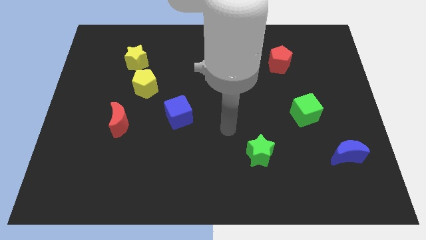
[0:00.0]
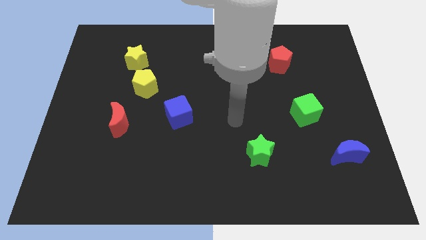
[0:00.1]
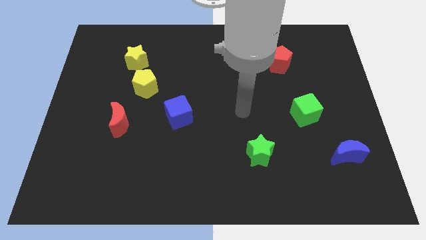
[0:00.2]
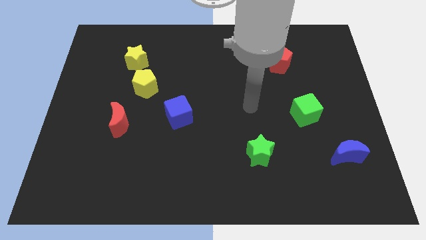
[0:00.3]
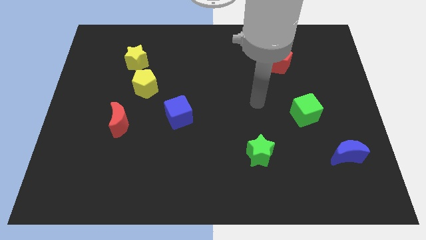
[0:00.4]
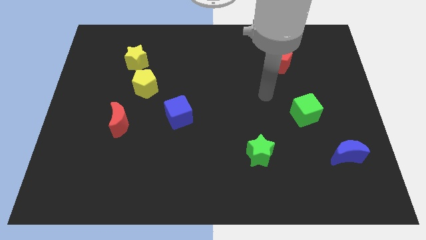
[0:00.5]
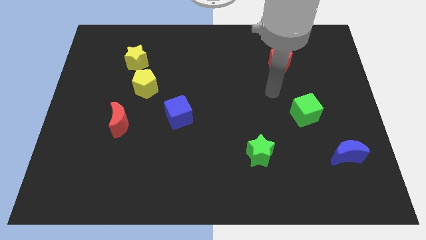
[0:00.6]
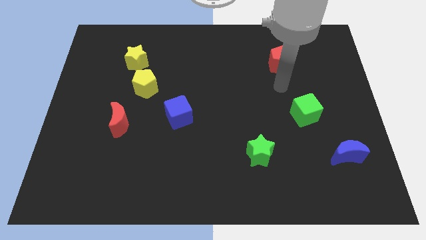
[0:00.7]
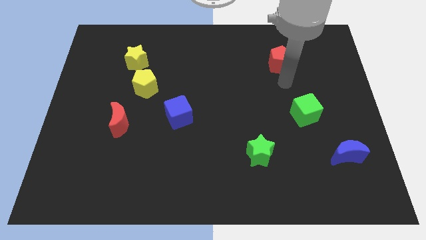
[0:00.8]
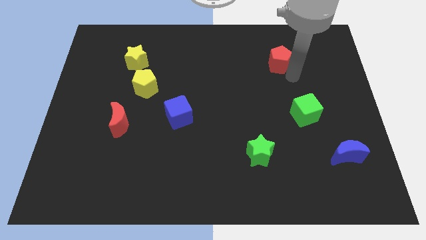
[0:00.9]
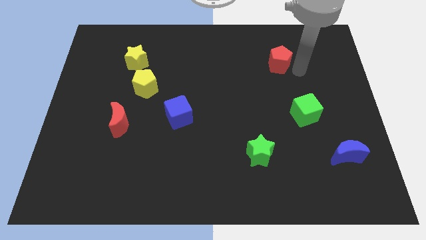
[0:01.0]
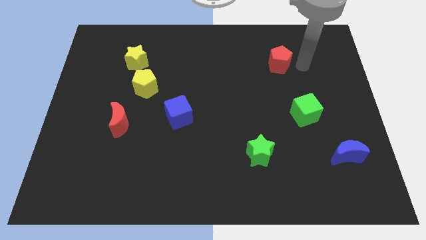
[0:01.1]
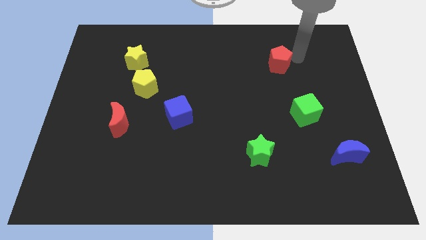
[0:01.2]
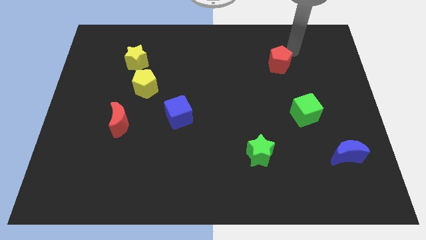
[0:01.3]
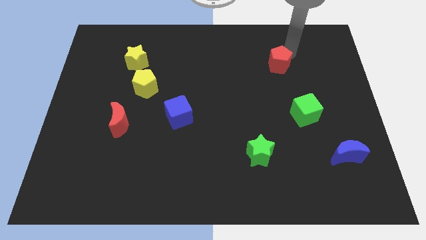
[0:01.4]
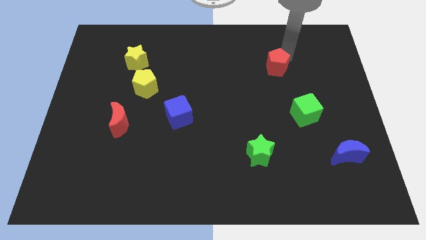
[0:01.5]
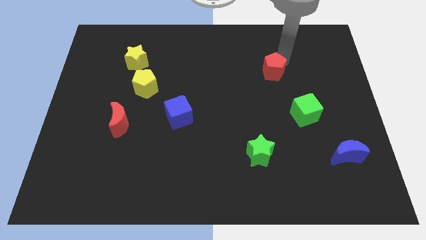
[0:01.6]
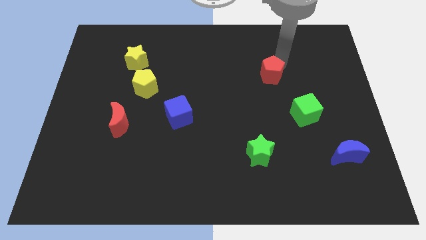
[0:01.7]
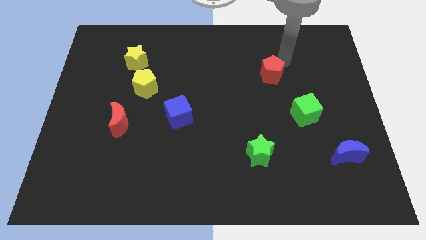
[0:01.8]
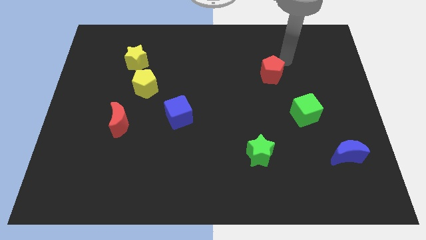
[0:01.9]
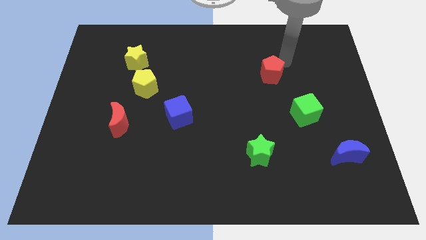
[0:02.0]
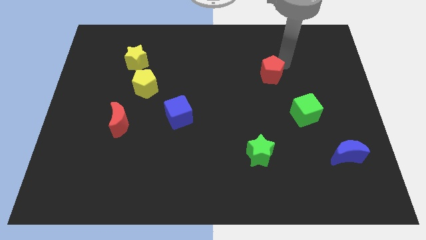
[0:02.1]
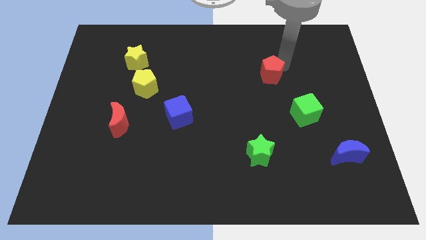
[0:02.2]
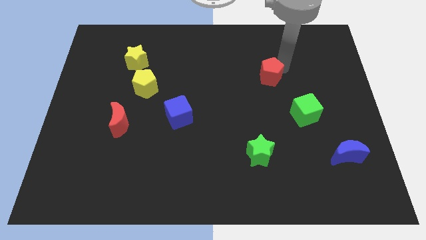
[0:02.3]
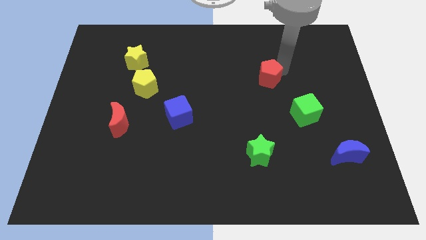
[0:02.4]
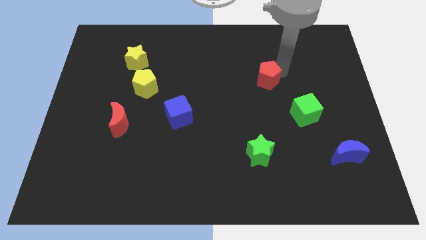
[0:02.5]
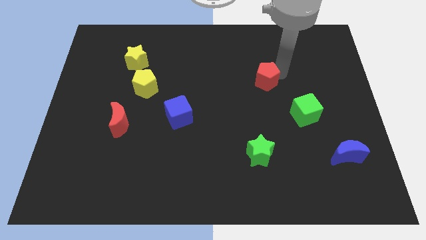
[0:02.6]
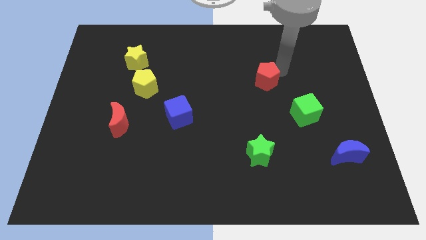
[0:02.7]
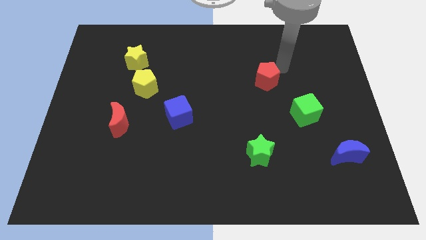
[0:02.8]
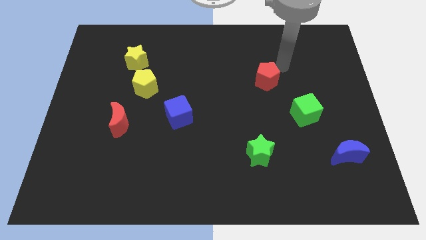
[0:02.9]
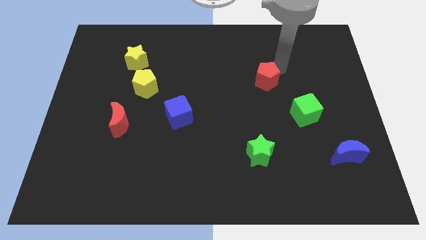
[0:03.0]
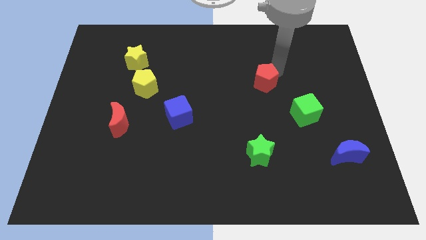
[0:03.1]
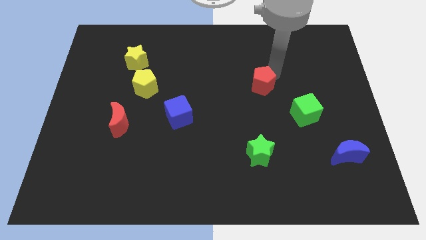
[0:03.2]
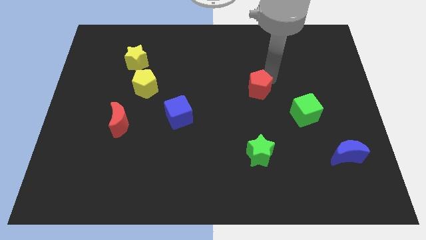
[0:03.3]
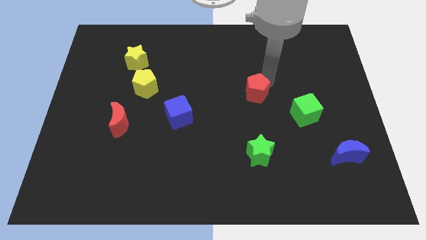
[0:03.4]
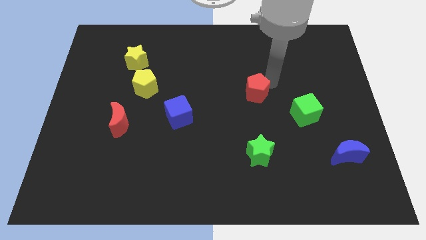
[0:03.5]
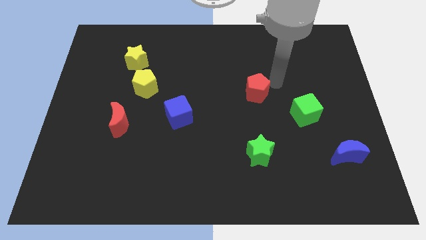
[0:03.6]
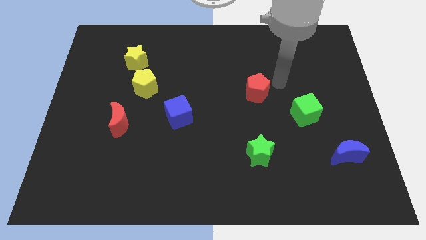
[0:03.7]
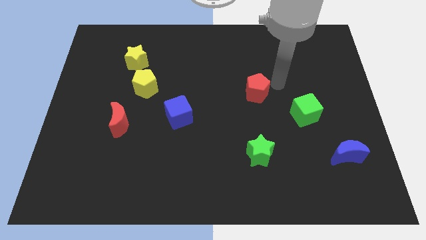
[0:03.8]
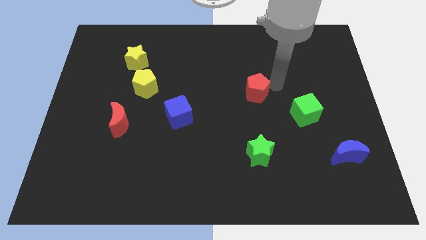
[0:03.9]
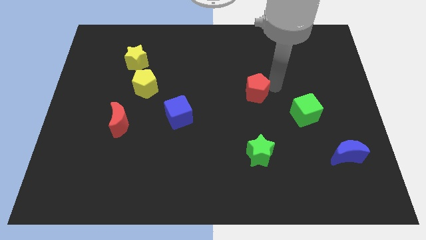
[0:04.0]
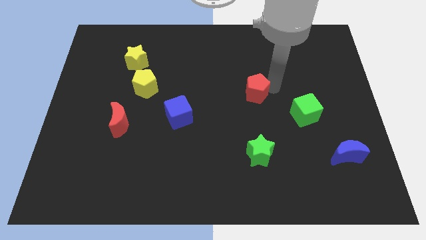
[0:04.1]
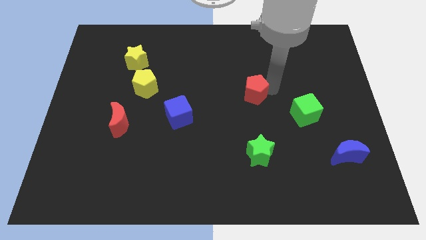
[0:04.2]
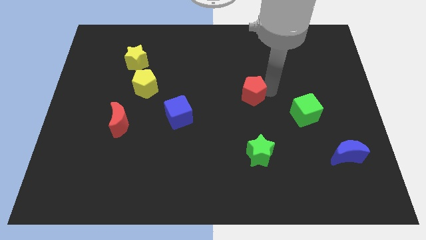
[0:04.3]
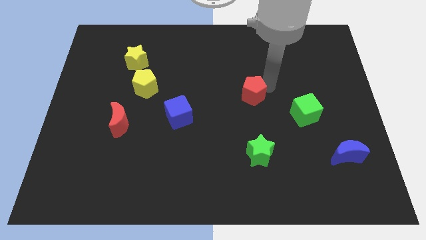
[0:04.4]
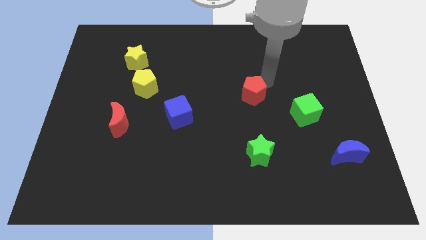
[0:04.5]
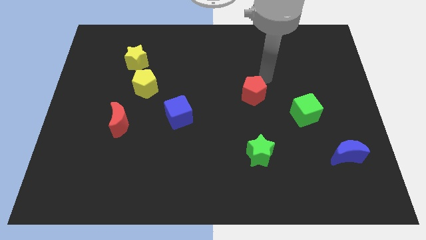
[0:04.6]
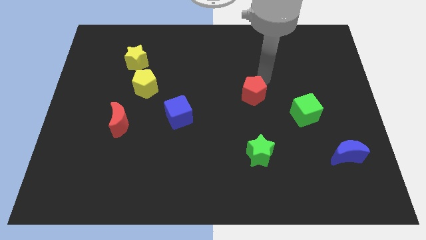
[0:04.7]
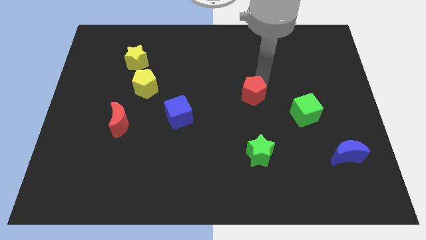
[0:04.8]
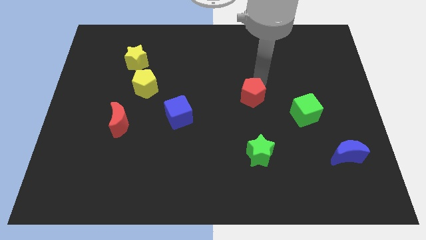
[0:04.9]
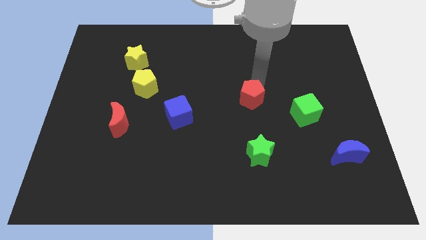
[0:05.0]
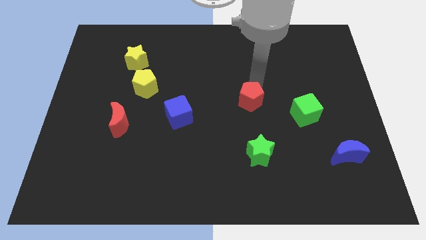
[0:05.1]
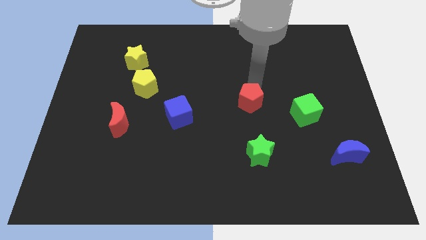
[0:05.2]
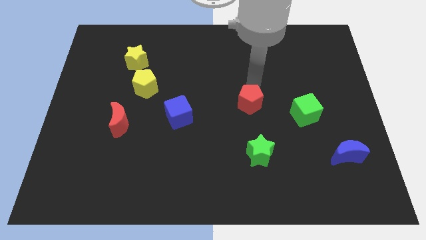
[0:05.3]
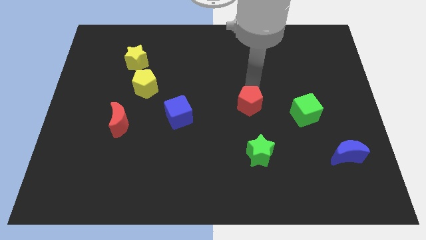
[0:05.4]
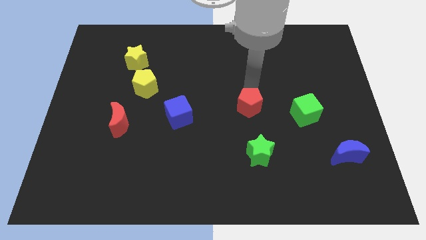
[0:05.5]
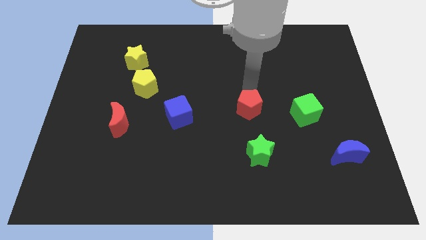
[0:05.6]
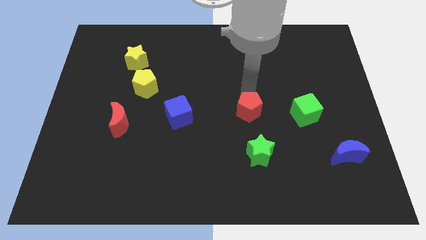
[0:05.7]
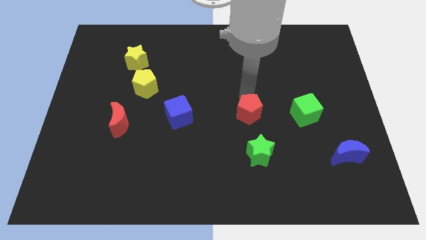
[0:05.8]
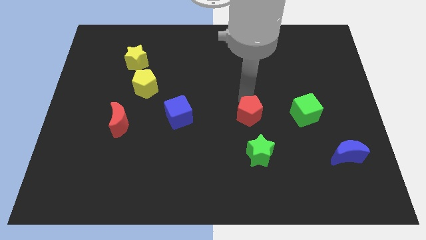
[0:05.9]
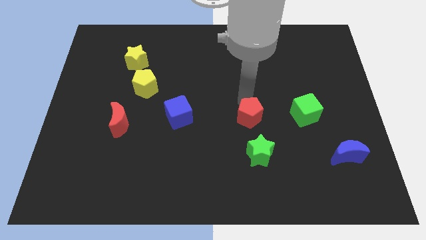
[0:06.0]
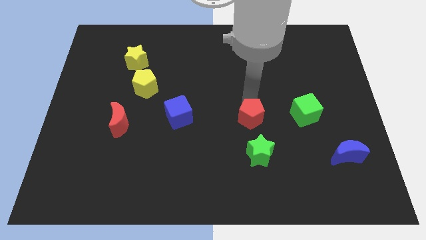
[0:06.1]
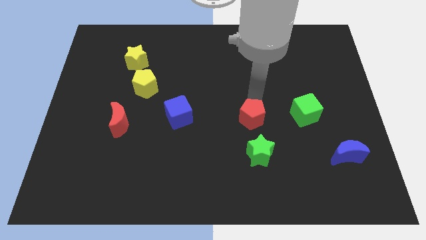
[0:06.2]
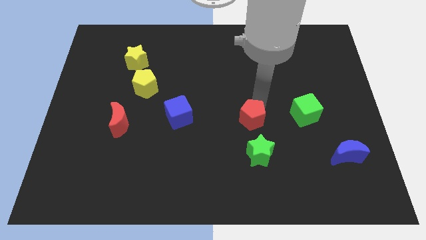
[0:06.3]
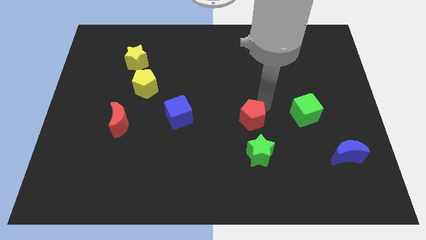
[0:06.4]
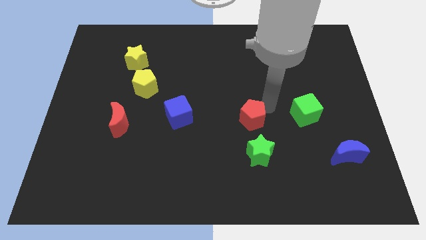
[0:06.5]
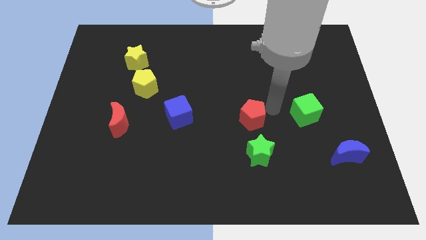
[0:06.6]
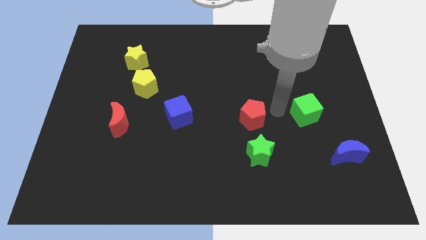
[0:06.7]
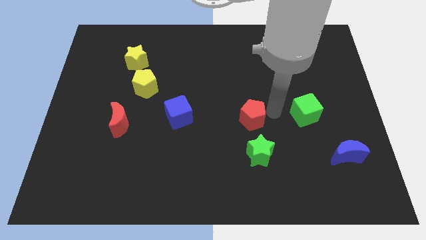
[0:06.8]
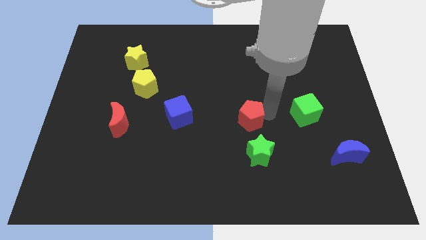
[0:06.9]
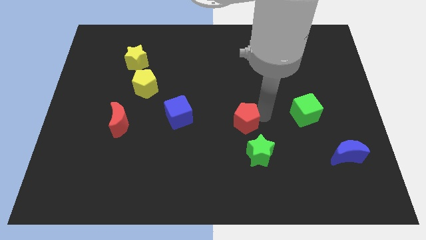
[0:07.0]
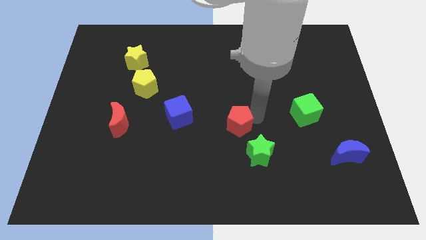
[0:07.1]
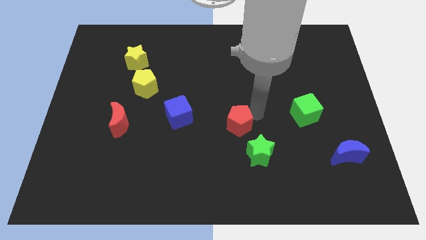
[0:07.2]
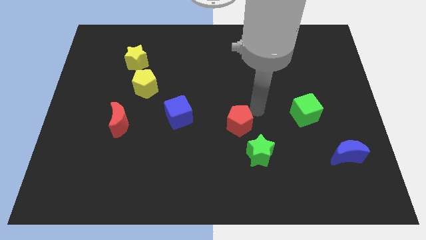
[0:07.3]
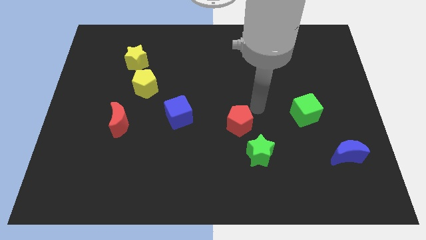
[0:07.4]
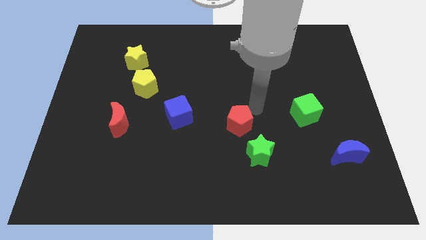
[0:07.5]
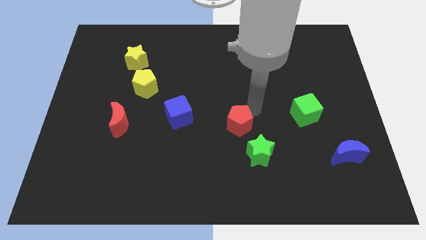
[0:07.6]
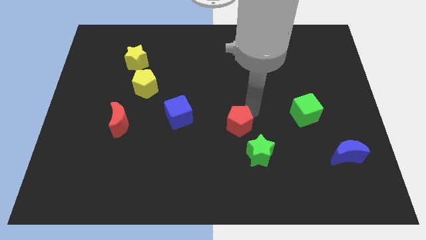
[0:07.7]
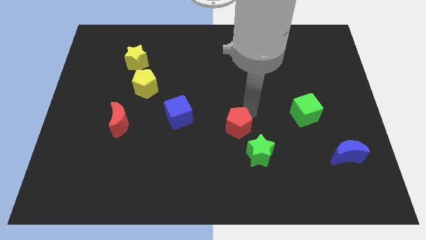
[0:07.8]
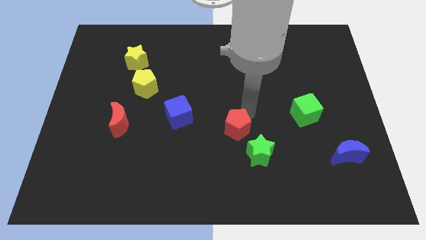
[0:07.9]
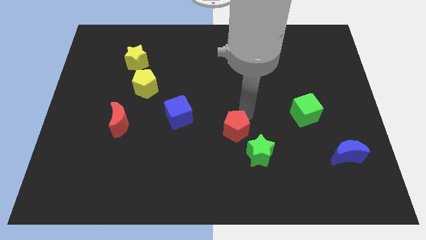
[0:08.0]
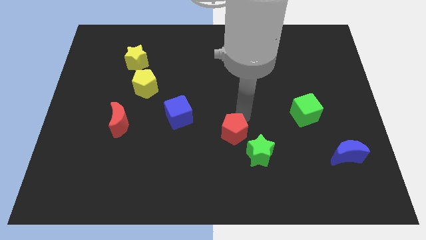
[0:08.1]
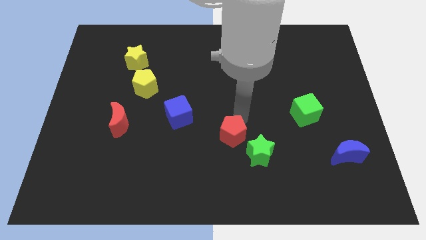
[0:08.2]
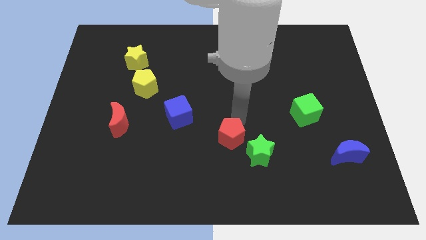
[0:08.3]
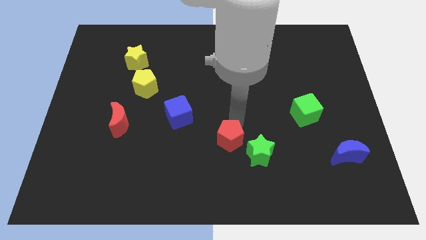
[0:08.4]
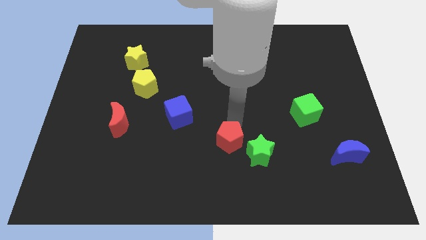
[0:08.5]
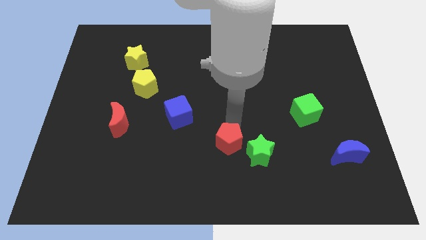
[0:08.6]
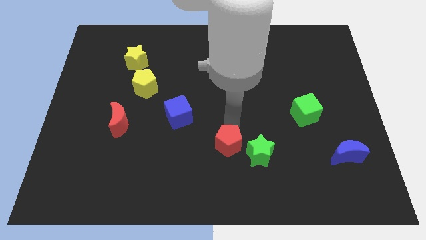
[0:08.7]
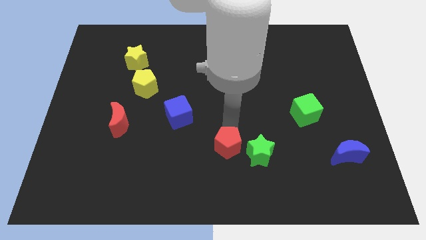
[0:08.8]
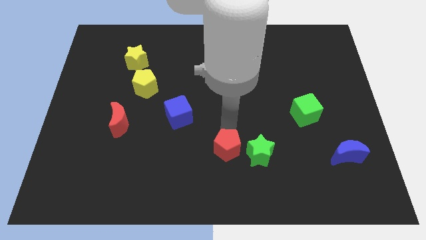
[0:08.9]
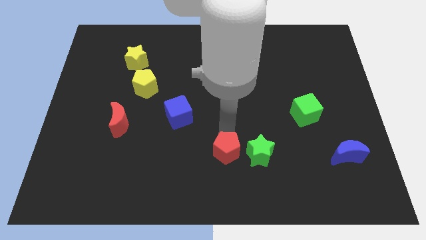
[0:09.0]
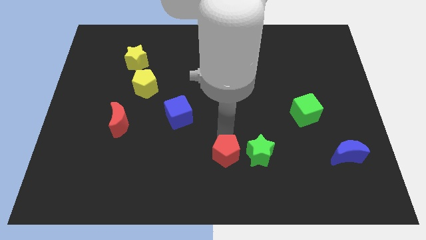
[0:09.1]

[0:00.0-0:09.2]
push the red pentagon to the bottom side
